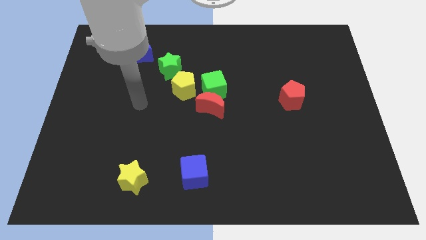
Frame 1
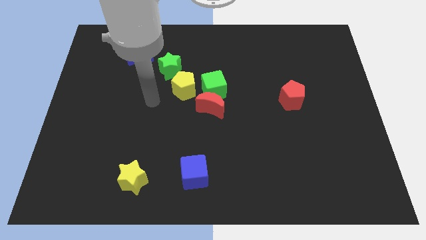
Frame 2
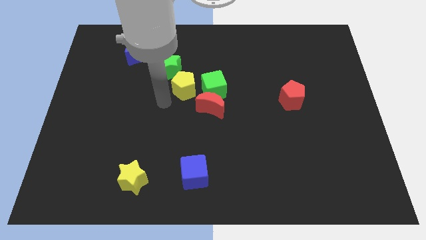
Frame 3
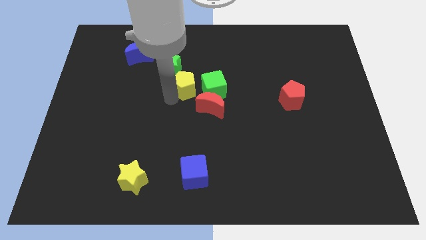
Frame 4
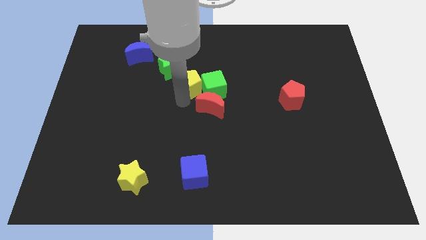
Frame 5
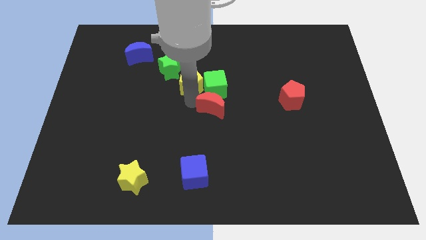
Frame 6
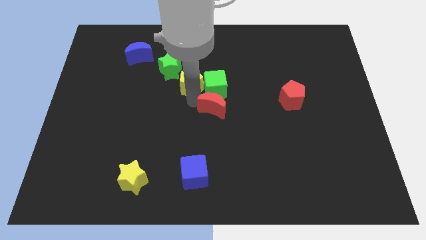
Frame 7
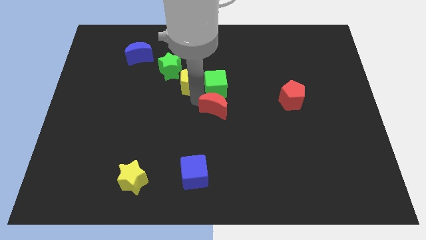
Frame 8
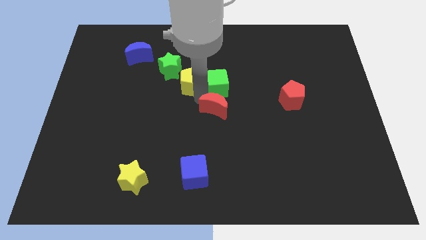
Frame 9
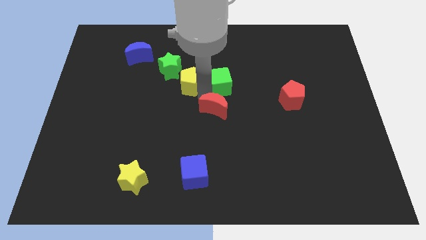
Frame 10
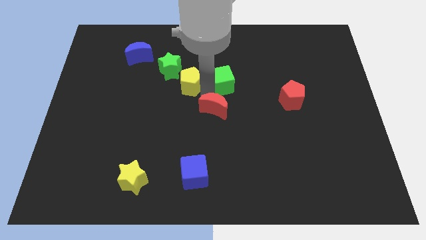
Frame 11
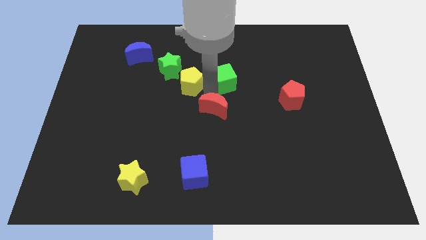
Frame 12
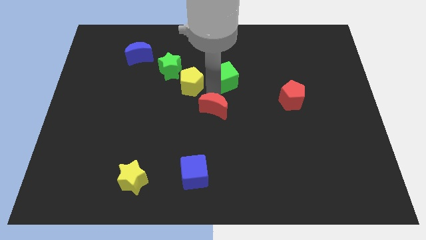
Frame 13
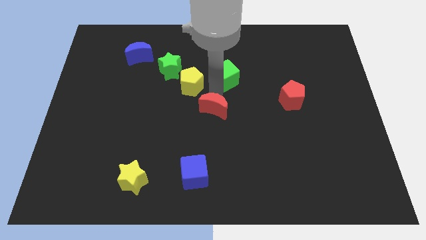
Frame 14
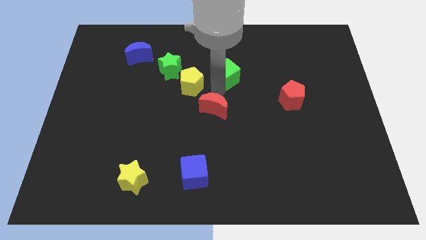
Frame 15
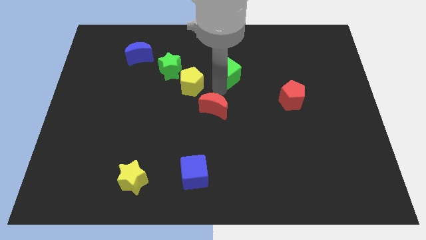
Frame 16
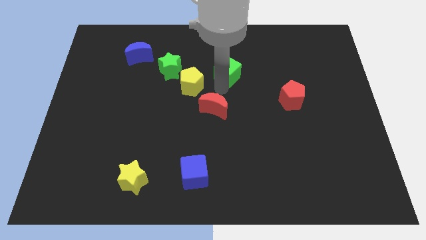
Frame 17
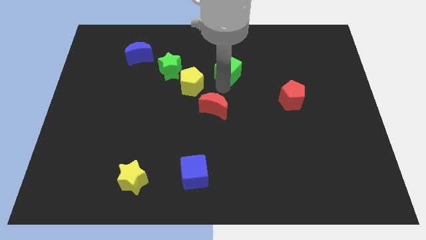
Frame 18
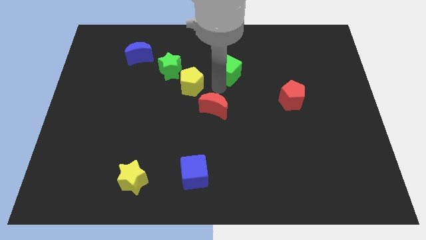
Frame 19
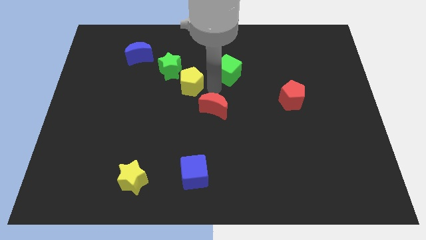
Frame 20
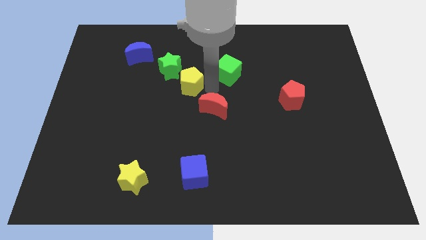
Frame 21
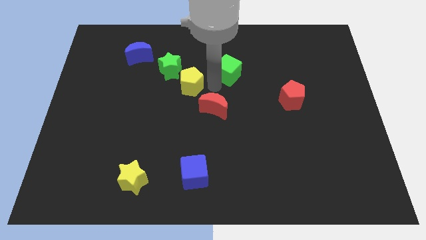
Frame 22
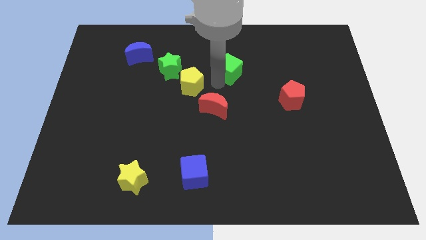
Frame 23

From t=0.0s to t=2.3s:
move the green cube away from the red moon and yellow pentagon

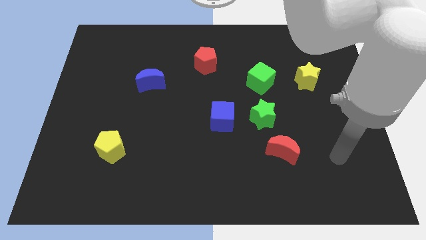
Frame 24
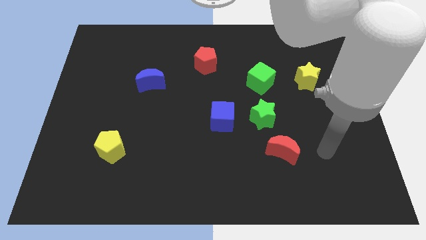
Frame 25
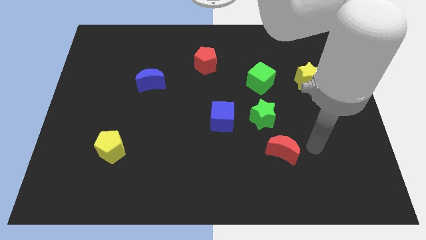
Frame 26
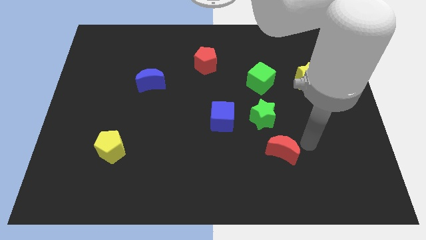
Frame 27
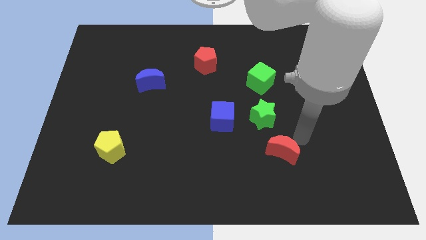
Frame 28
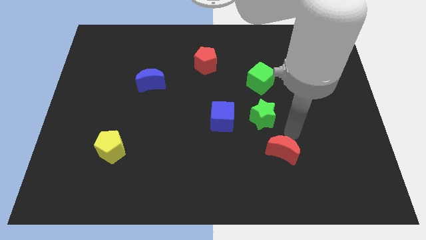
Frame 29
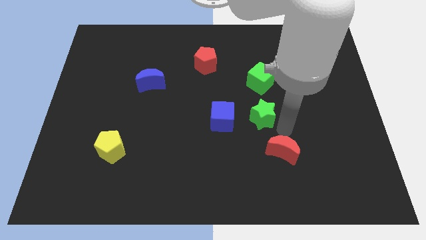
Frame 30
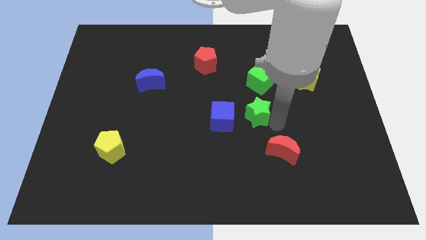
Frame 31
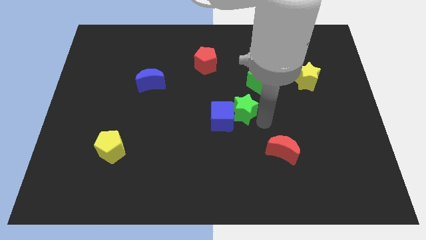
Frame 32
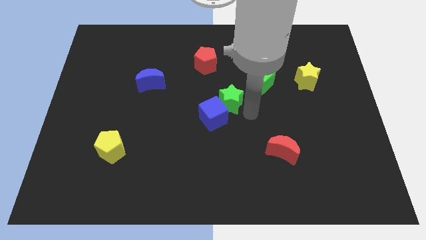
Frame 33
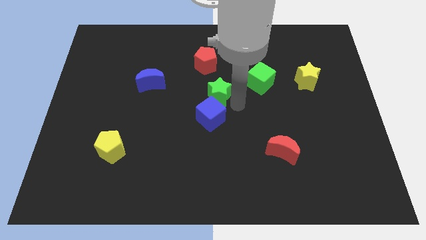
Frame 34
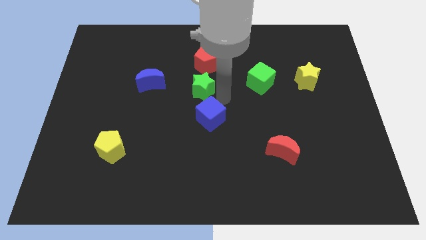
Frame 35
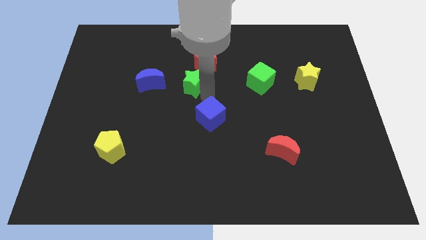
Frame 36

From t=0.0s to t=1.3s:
separate the blue cube from the green star

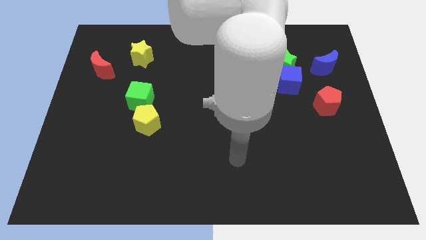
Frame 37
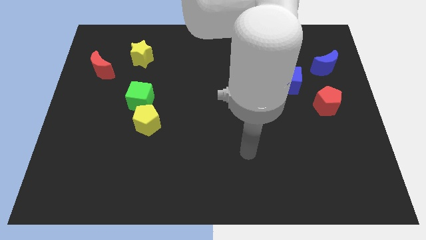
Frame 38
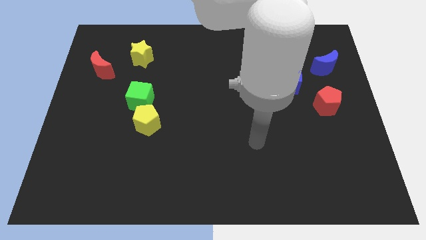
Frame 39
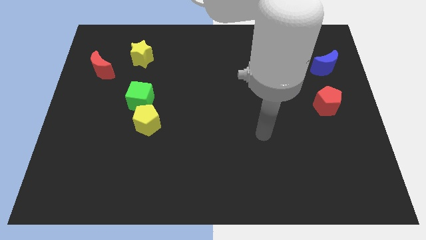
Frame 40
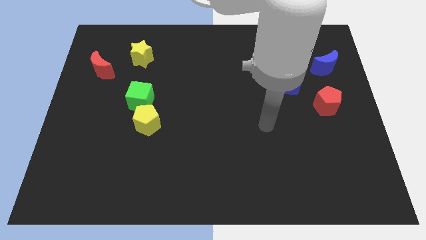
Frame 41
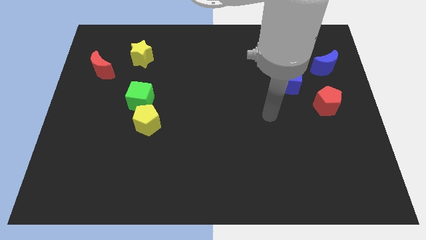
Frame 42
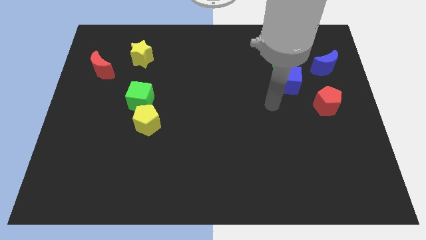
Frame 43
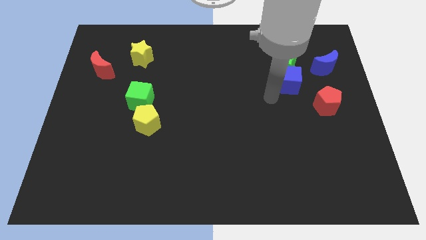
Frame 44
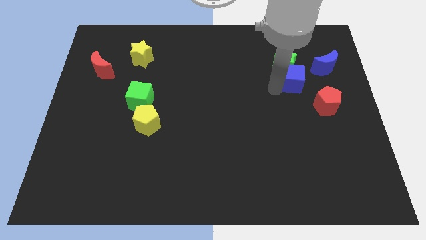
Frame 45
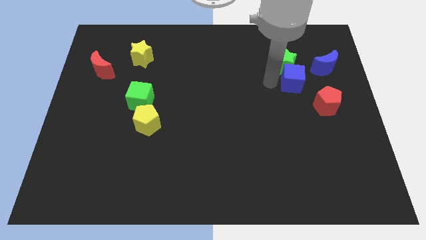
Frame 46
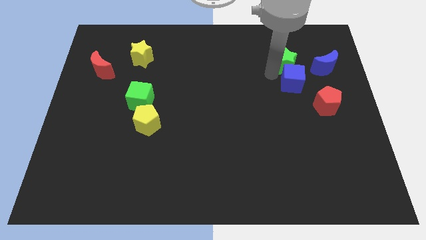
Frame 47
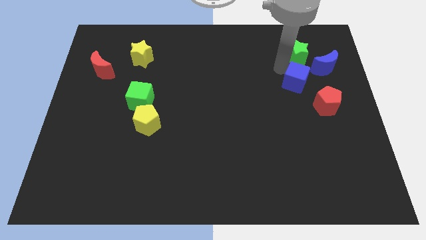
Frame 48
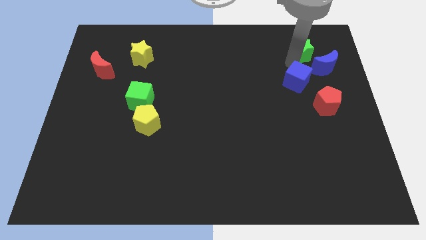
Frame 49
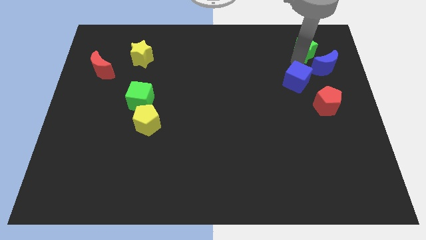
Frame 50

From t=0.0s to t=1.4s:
move the blue cube away from the green star

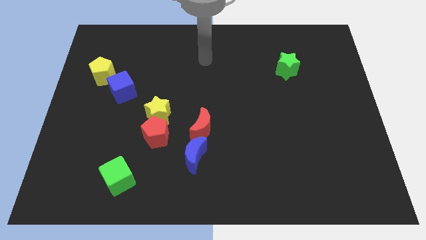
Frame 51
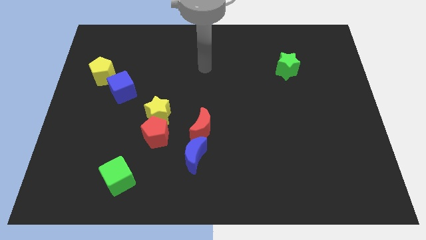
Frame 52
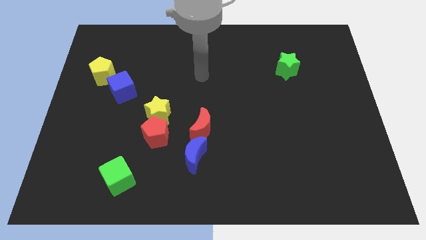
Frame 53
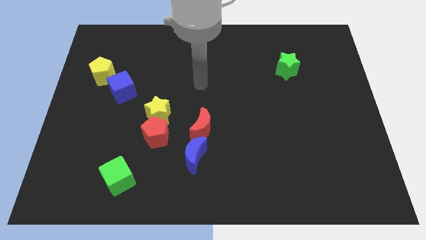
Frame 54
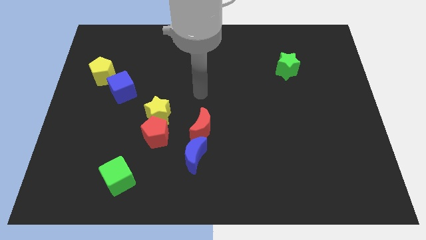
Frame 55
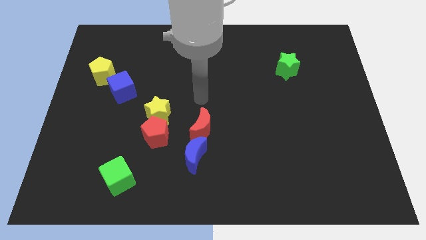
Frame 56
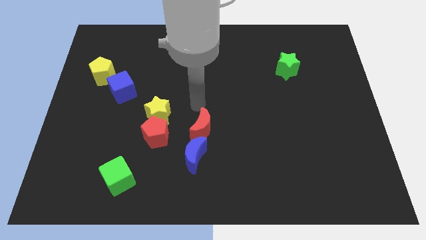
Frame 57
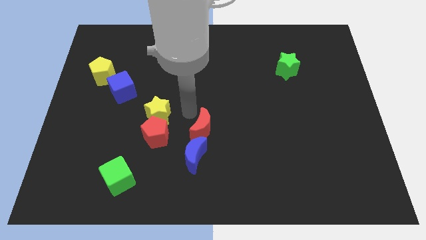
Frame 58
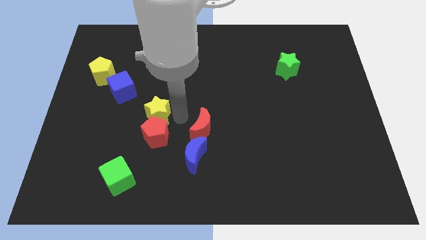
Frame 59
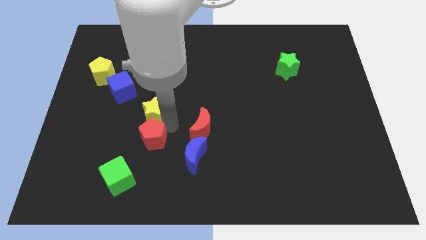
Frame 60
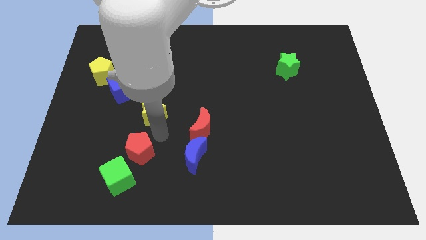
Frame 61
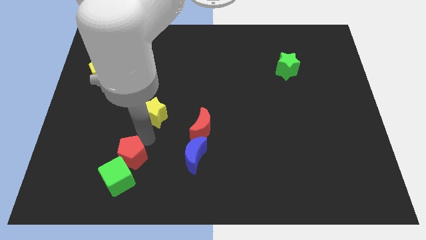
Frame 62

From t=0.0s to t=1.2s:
separate the yellow star from the red pentagon

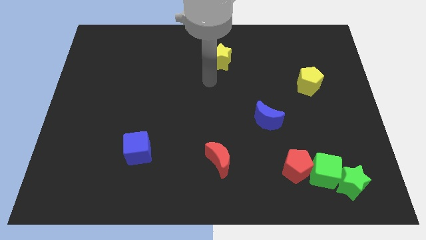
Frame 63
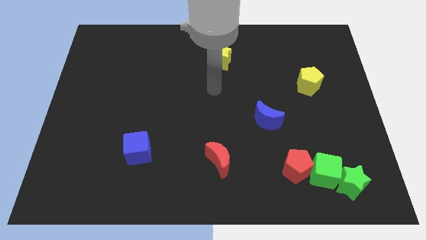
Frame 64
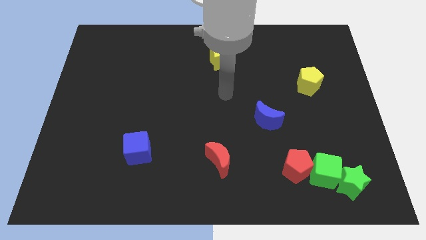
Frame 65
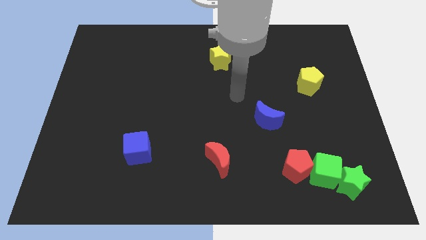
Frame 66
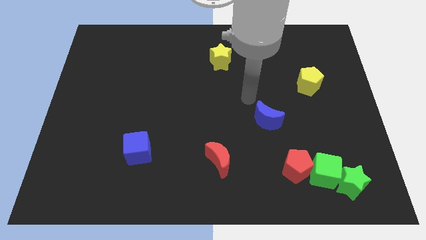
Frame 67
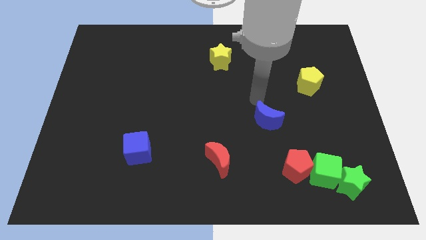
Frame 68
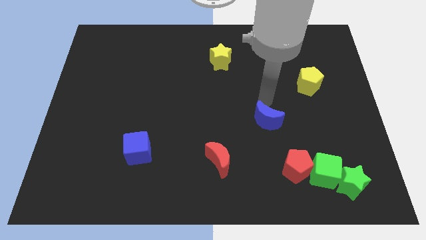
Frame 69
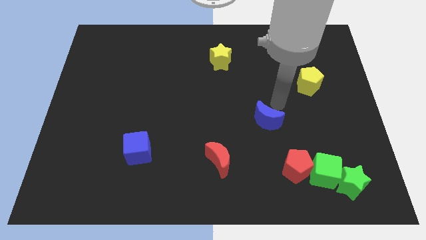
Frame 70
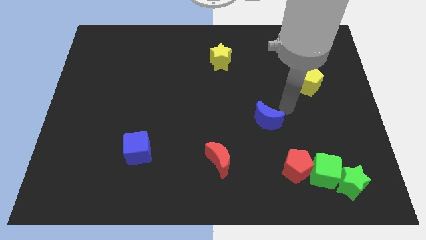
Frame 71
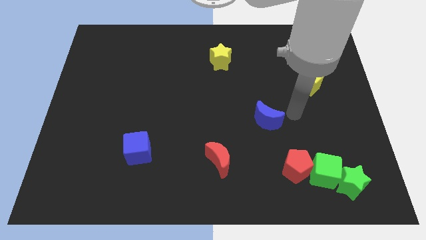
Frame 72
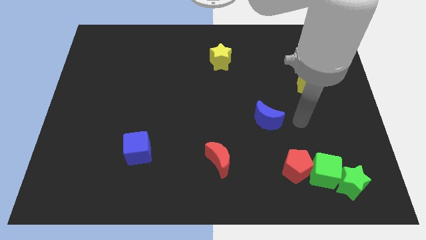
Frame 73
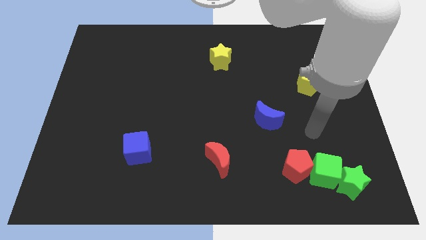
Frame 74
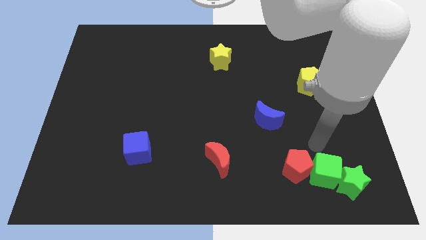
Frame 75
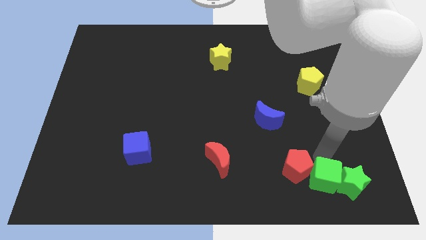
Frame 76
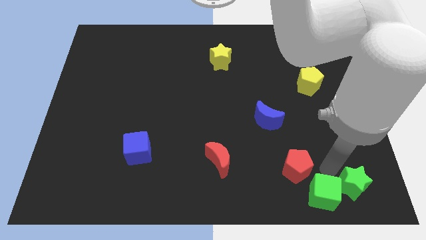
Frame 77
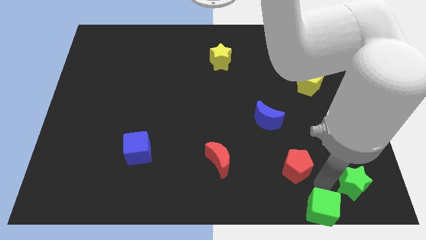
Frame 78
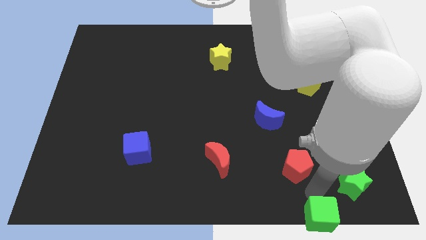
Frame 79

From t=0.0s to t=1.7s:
pull the red pentagon apart from the green cube

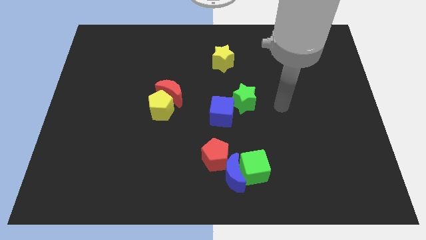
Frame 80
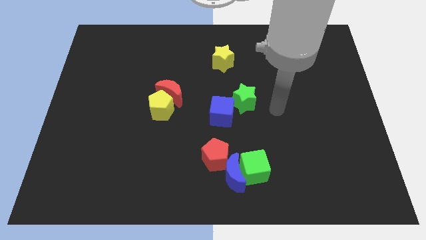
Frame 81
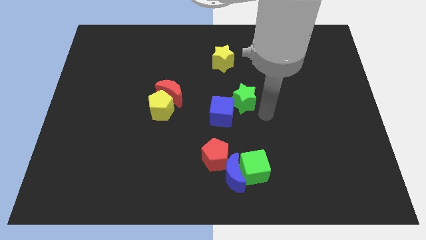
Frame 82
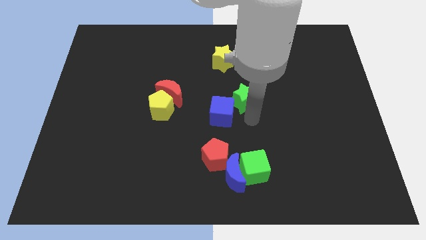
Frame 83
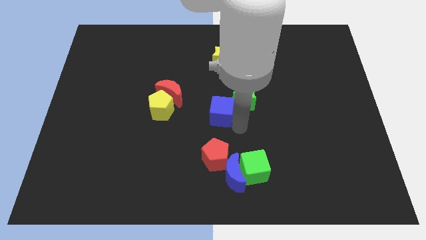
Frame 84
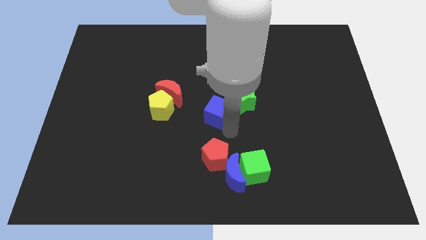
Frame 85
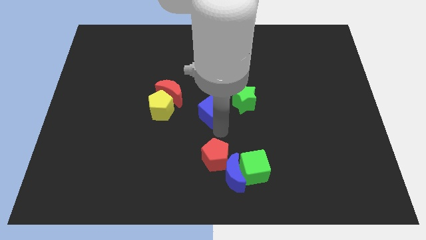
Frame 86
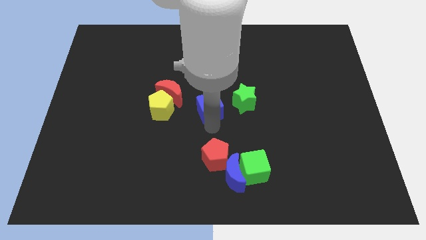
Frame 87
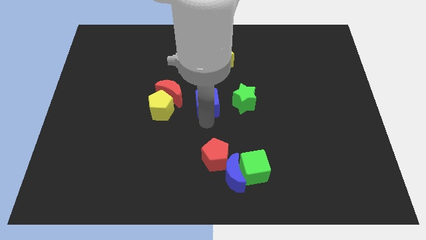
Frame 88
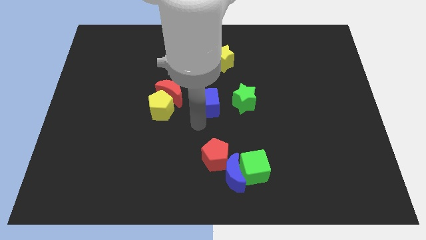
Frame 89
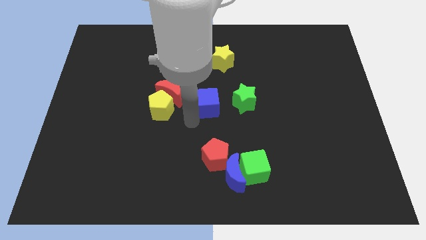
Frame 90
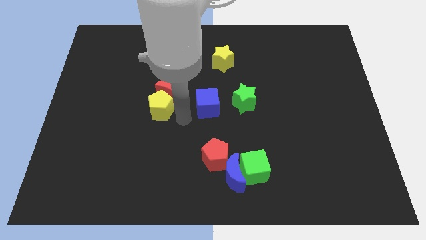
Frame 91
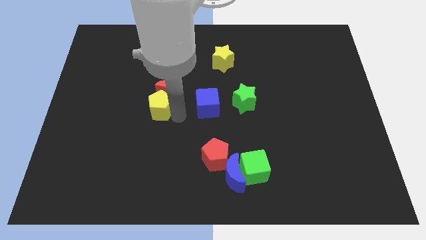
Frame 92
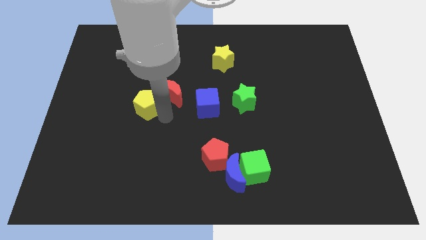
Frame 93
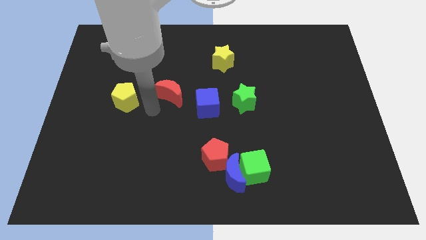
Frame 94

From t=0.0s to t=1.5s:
separate the red moon from the yellow pentagon
